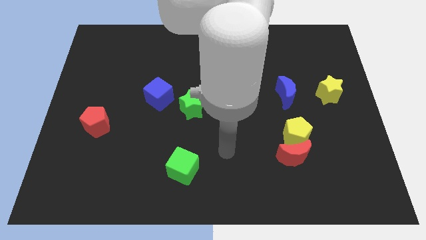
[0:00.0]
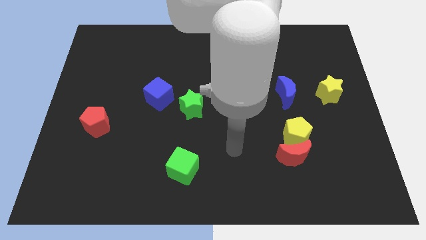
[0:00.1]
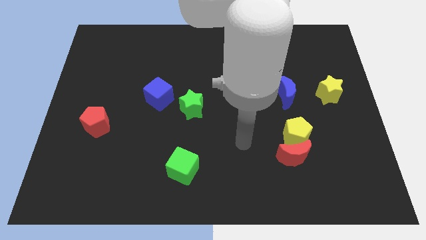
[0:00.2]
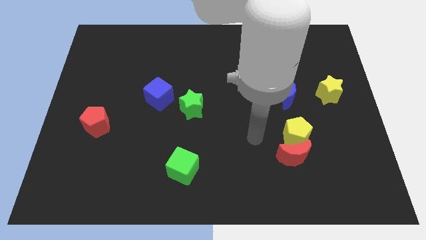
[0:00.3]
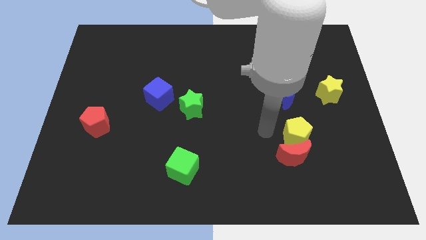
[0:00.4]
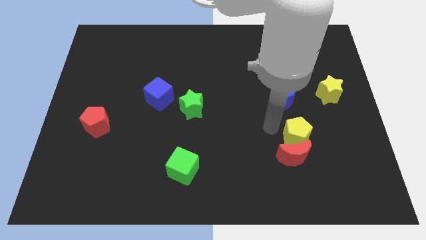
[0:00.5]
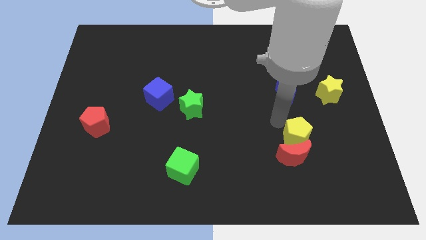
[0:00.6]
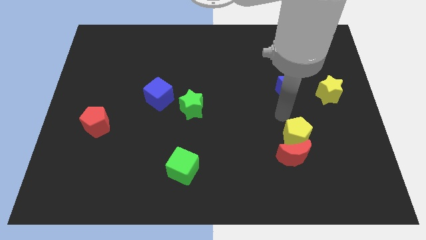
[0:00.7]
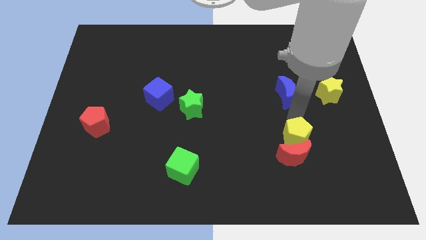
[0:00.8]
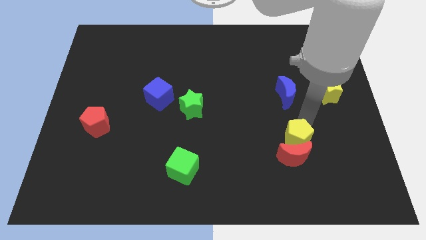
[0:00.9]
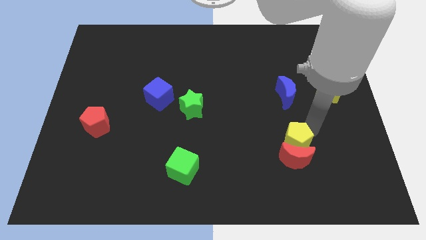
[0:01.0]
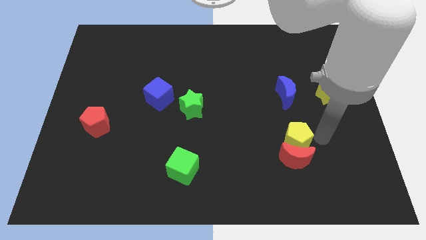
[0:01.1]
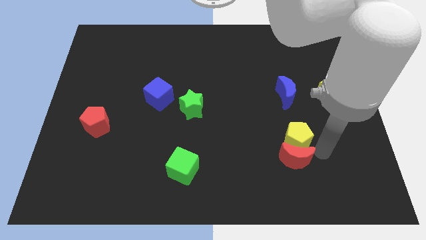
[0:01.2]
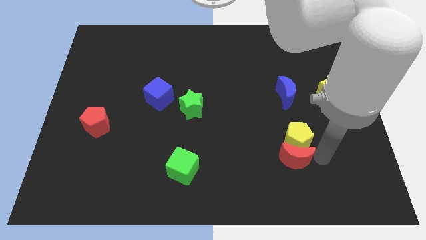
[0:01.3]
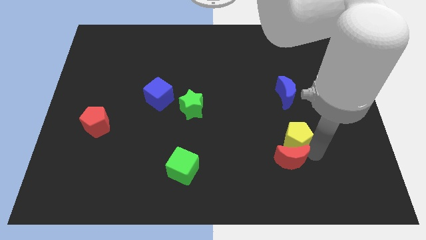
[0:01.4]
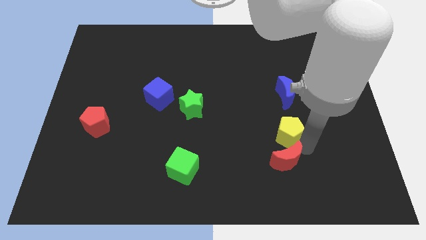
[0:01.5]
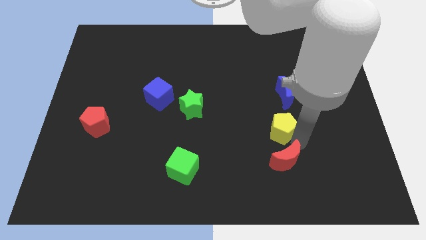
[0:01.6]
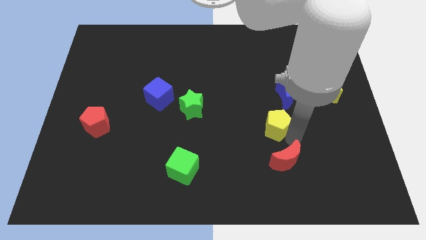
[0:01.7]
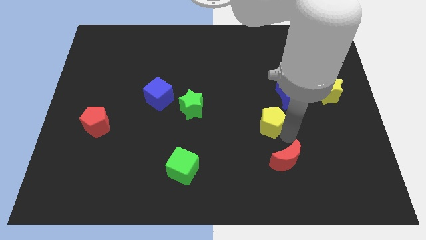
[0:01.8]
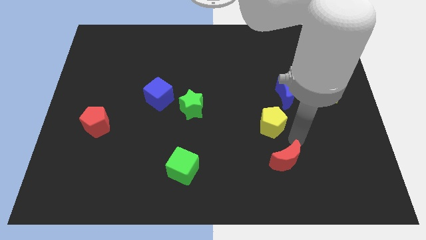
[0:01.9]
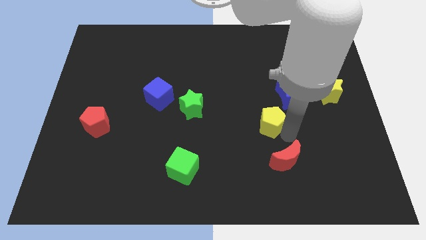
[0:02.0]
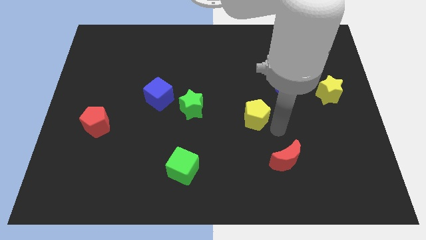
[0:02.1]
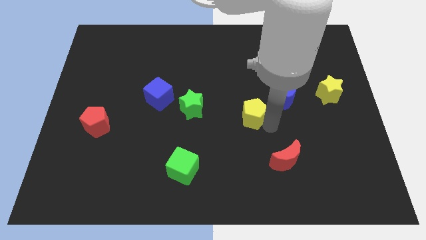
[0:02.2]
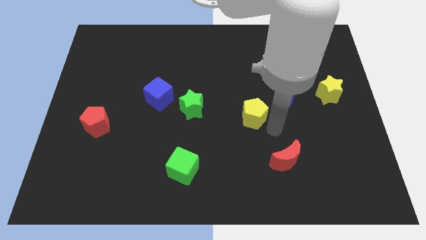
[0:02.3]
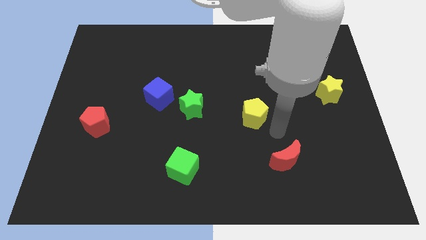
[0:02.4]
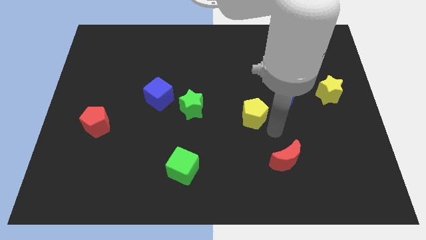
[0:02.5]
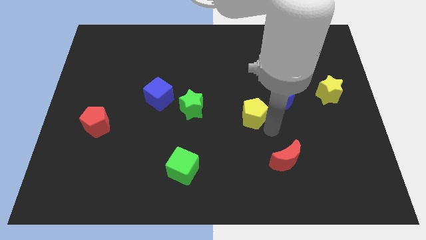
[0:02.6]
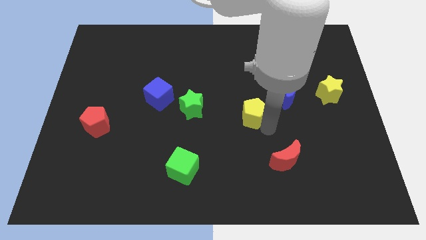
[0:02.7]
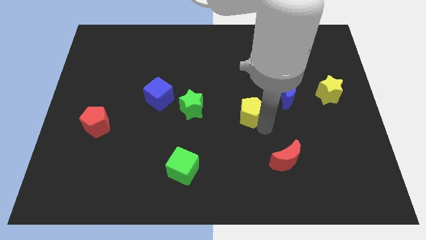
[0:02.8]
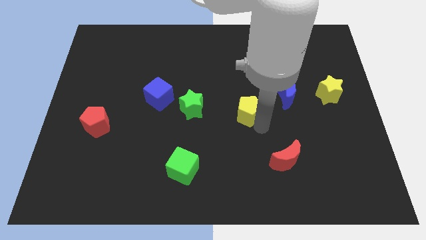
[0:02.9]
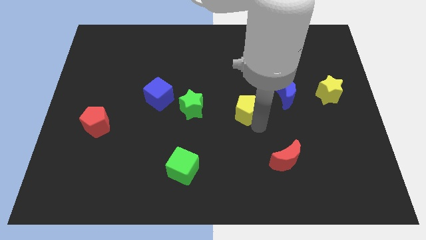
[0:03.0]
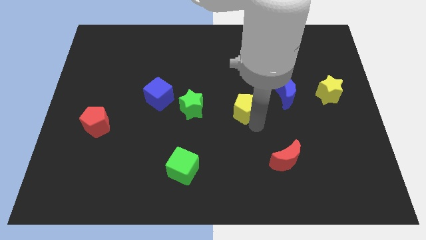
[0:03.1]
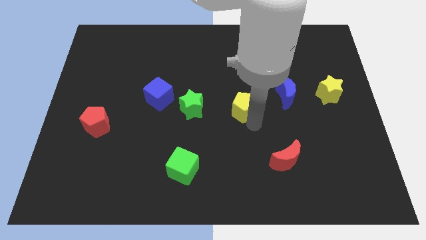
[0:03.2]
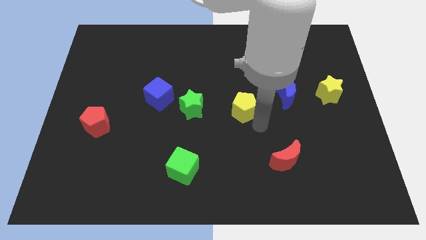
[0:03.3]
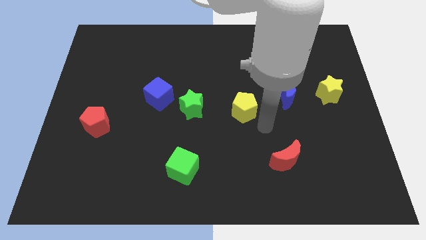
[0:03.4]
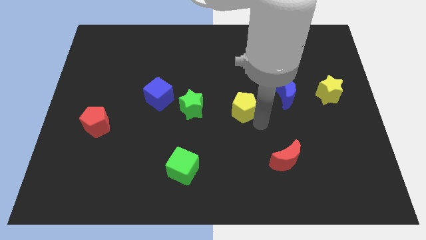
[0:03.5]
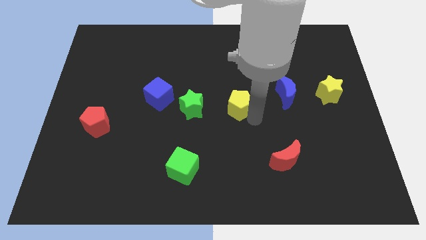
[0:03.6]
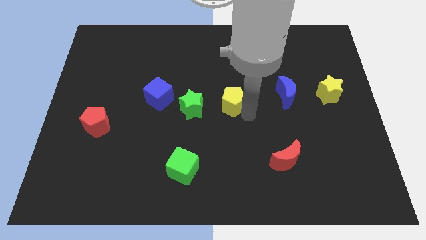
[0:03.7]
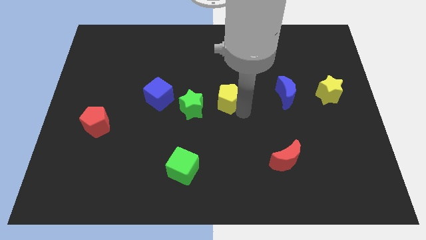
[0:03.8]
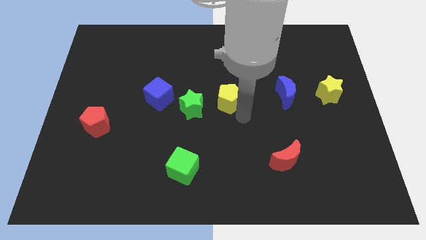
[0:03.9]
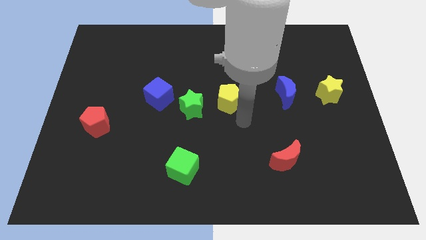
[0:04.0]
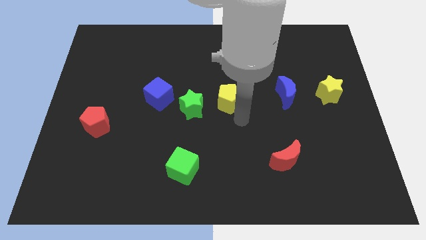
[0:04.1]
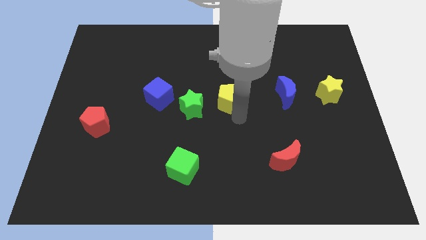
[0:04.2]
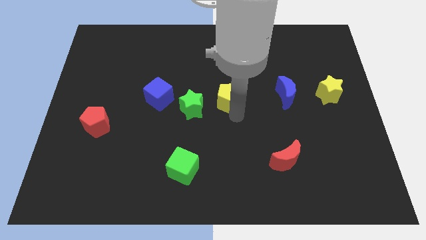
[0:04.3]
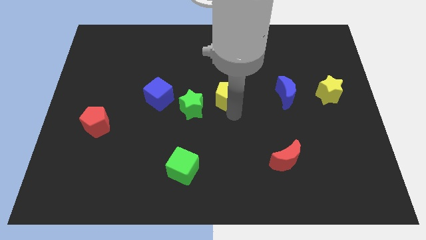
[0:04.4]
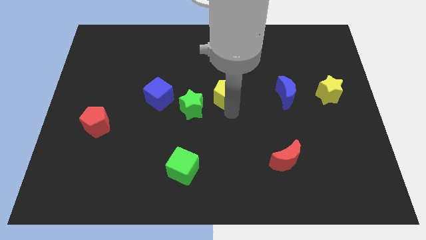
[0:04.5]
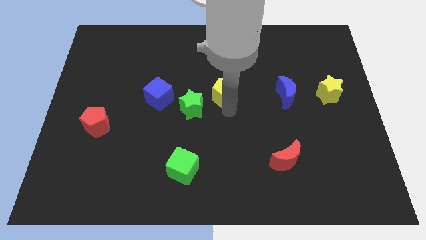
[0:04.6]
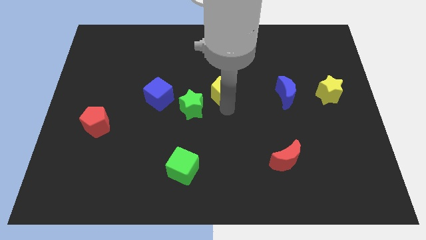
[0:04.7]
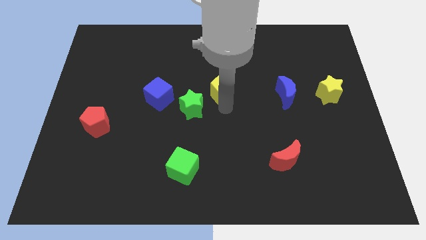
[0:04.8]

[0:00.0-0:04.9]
move the yellow pentagon up and then left

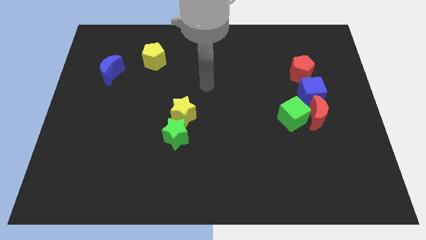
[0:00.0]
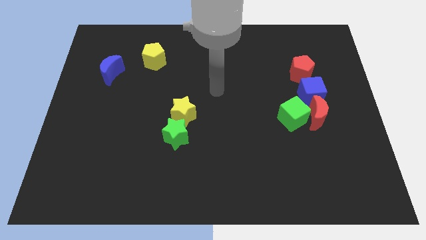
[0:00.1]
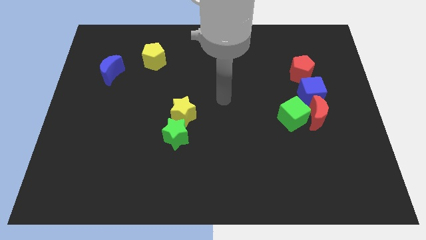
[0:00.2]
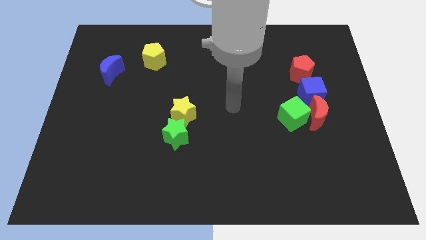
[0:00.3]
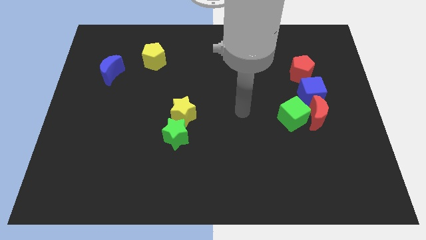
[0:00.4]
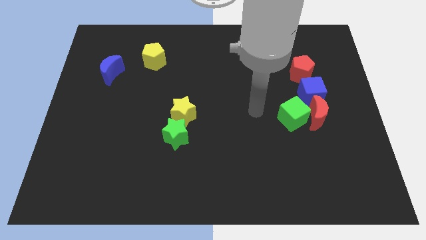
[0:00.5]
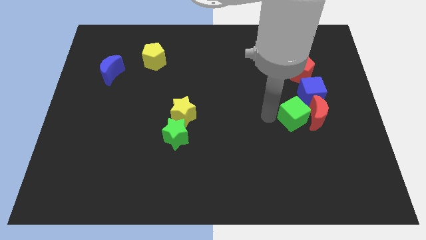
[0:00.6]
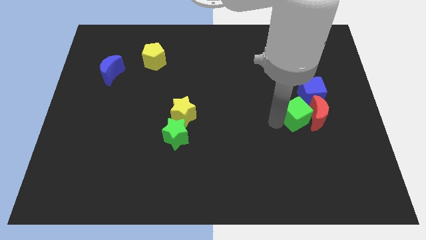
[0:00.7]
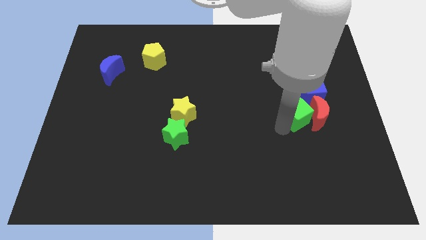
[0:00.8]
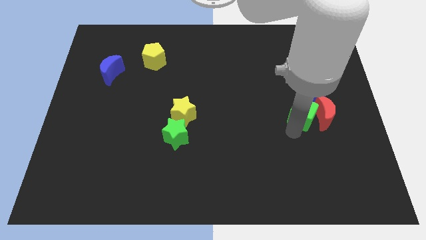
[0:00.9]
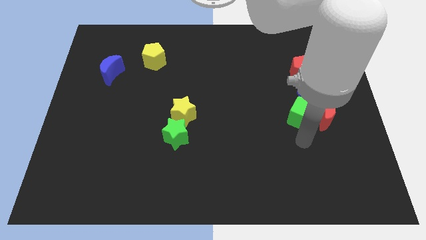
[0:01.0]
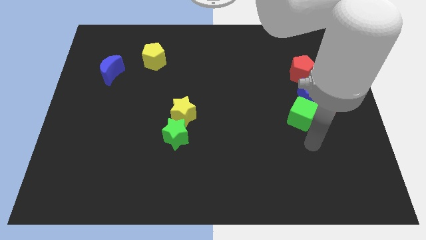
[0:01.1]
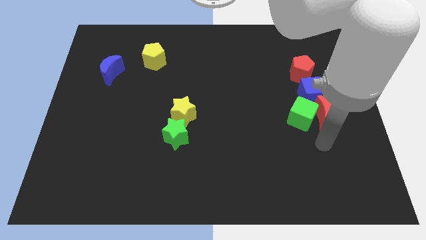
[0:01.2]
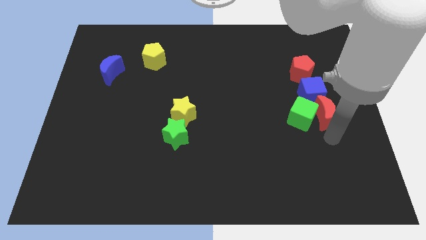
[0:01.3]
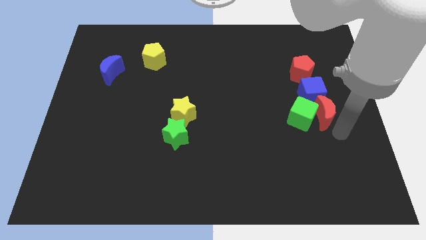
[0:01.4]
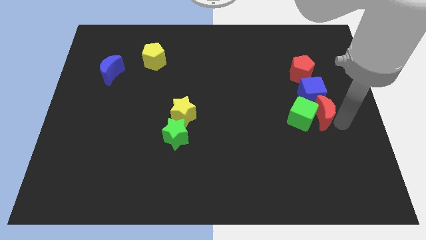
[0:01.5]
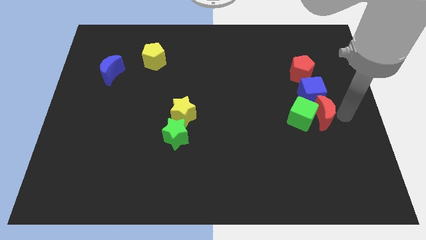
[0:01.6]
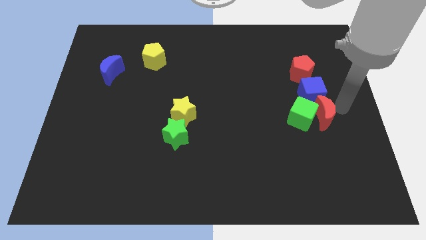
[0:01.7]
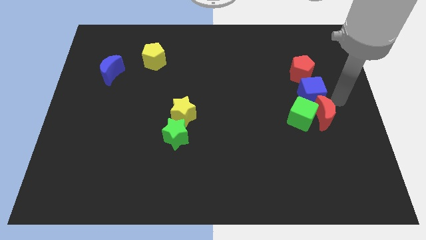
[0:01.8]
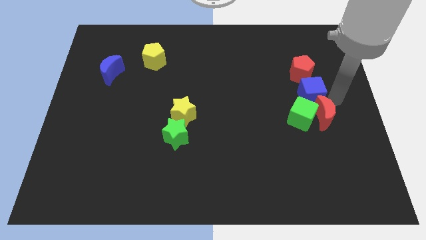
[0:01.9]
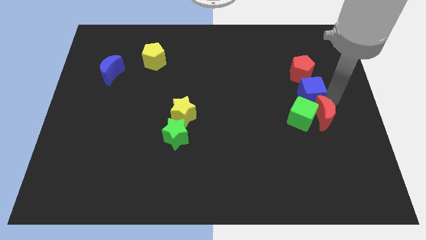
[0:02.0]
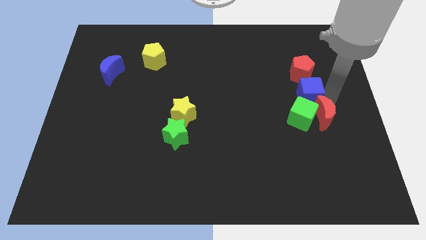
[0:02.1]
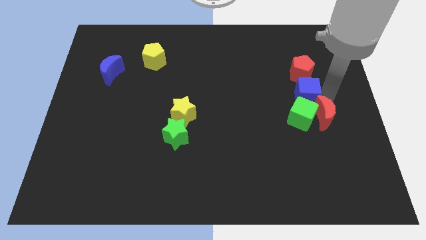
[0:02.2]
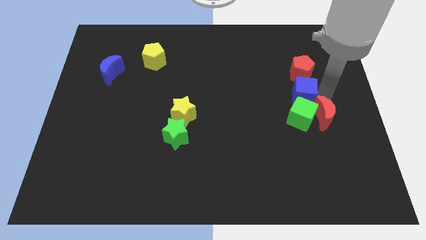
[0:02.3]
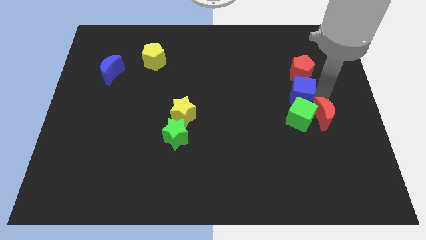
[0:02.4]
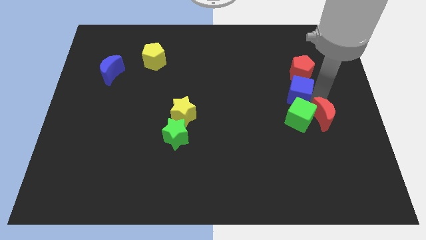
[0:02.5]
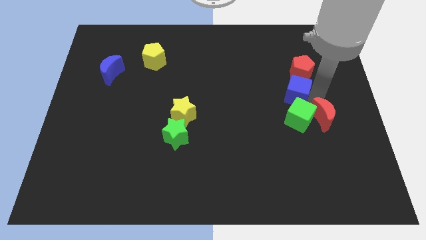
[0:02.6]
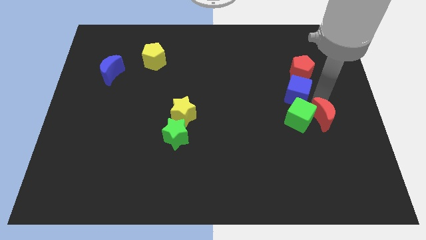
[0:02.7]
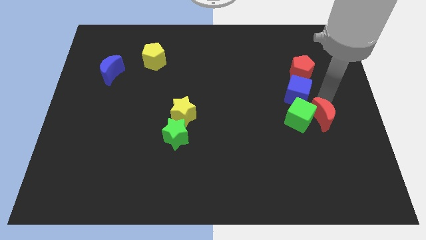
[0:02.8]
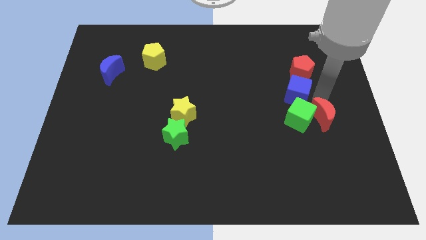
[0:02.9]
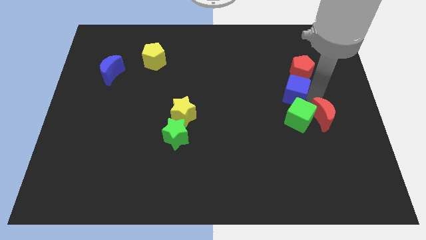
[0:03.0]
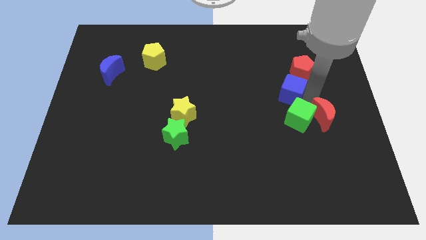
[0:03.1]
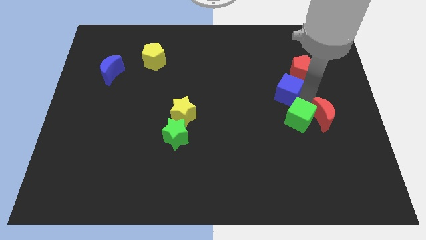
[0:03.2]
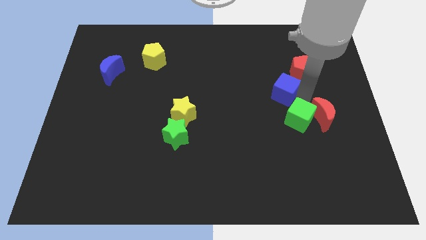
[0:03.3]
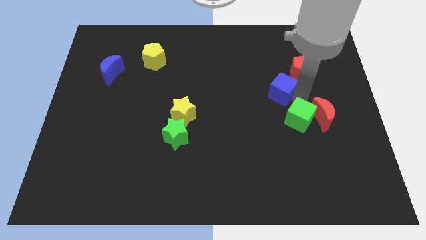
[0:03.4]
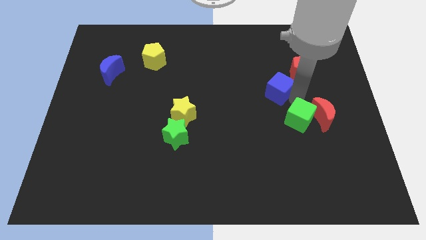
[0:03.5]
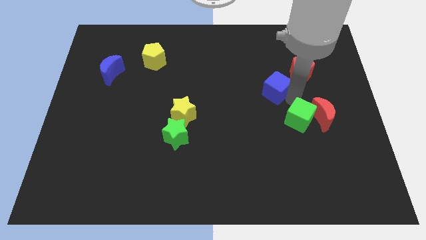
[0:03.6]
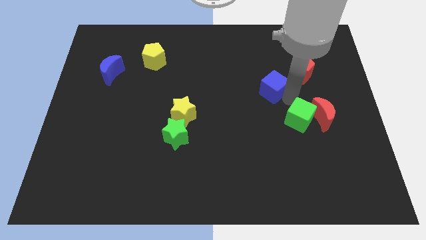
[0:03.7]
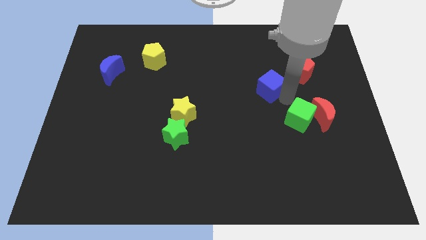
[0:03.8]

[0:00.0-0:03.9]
push the blue cube upwards and left diagonally somewhat
